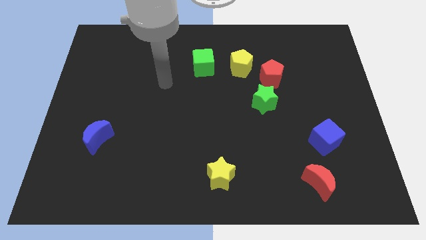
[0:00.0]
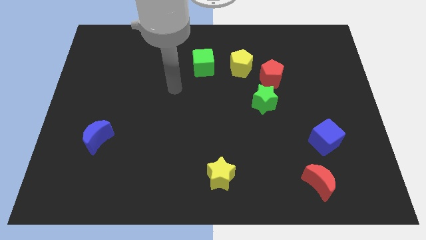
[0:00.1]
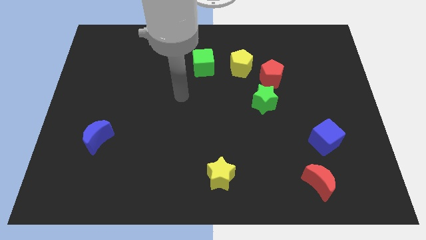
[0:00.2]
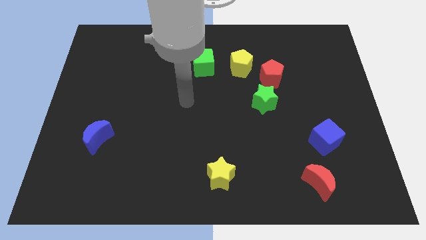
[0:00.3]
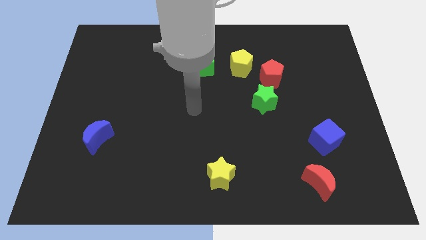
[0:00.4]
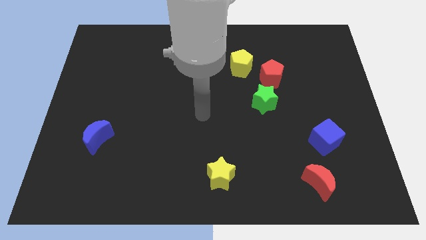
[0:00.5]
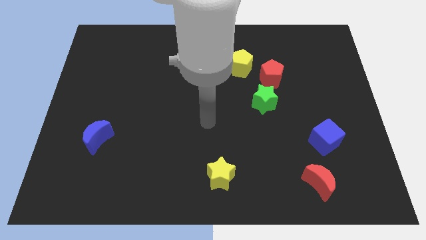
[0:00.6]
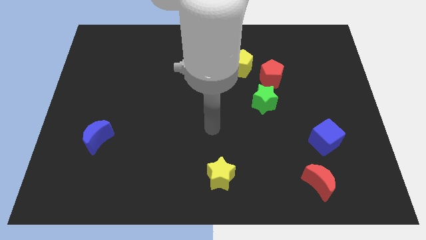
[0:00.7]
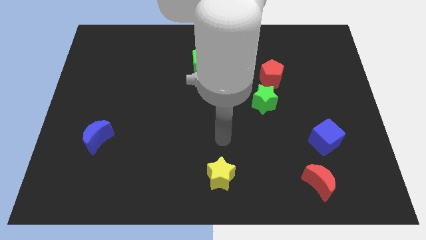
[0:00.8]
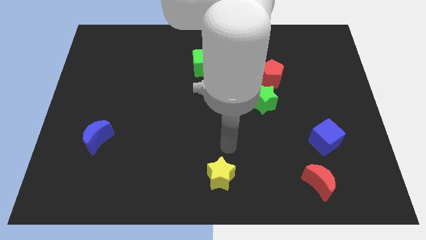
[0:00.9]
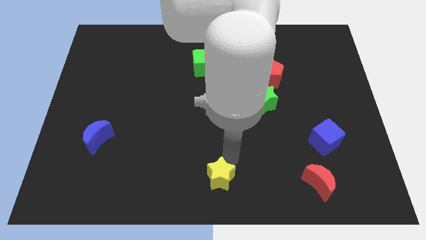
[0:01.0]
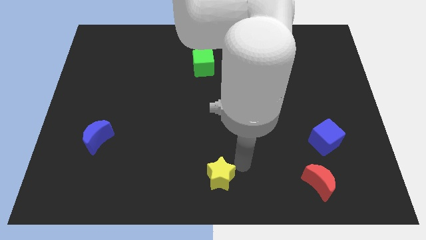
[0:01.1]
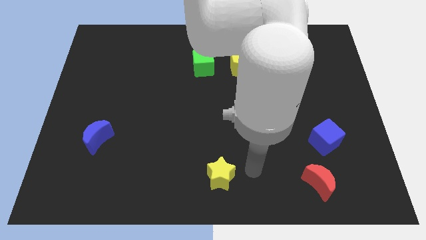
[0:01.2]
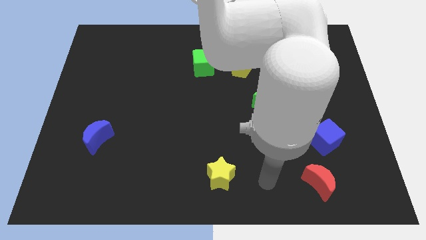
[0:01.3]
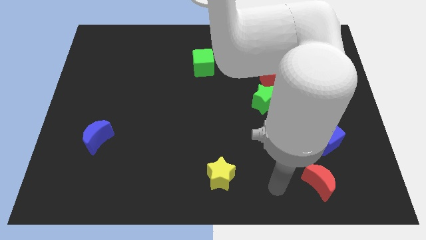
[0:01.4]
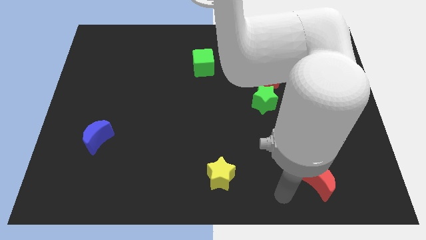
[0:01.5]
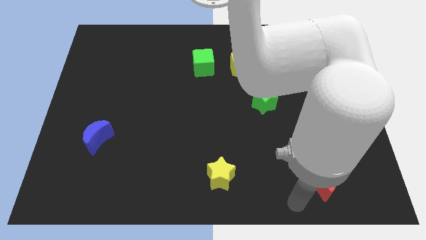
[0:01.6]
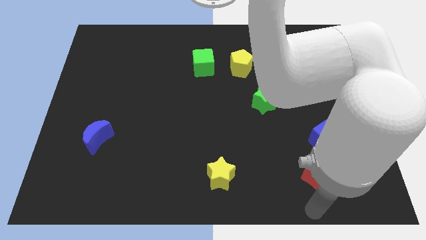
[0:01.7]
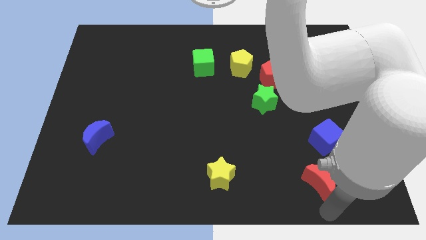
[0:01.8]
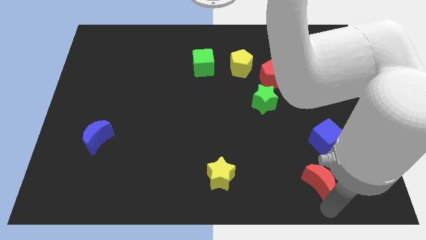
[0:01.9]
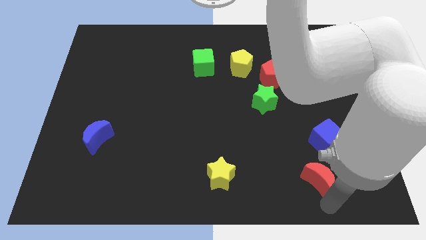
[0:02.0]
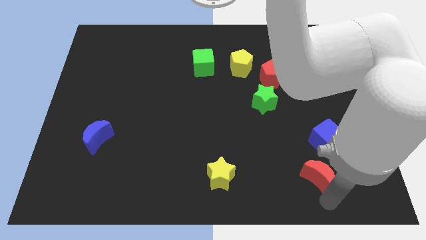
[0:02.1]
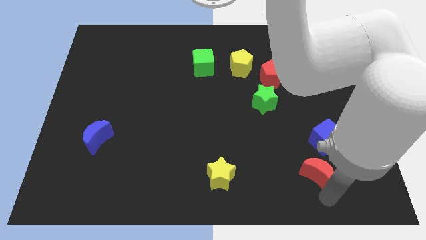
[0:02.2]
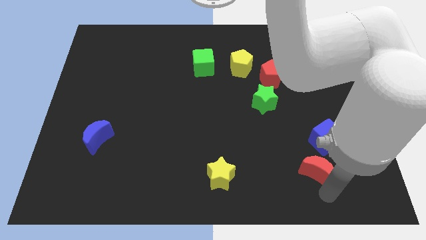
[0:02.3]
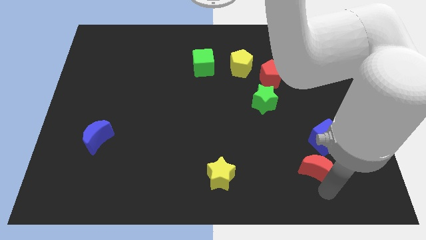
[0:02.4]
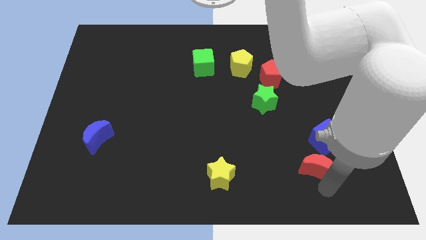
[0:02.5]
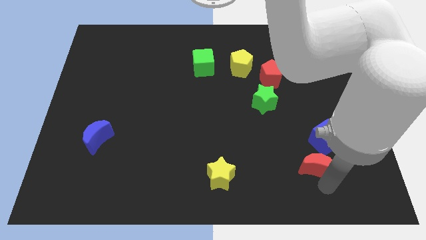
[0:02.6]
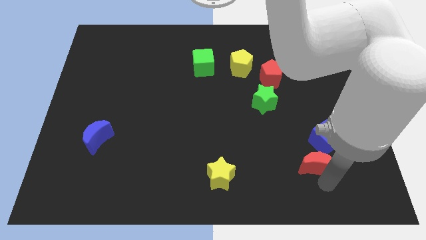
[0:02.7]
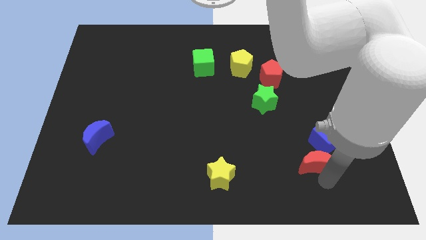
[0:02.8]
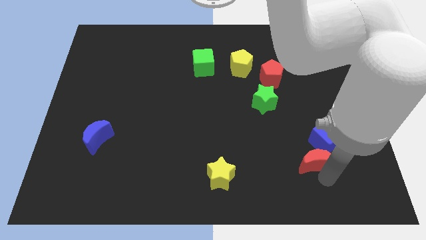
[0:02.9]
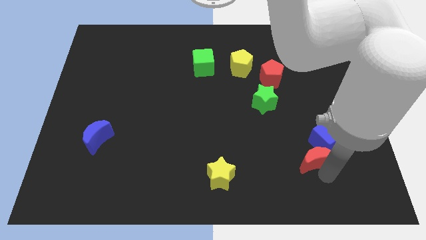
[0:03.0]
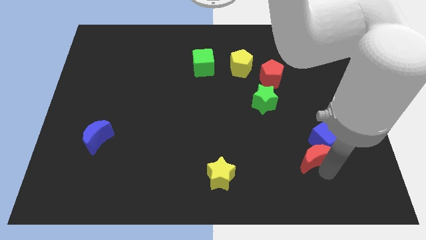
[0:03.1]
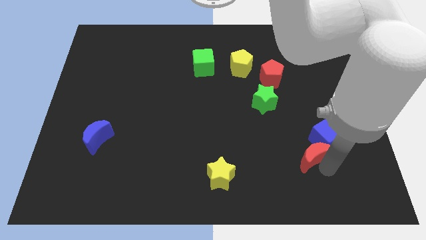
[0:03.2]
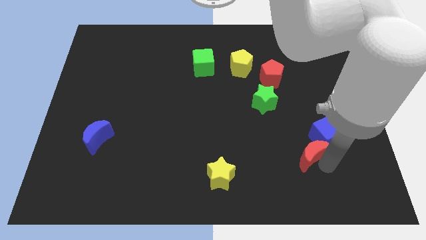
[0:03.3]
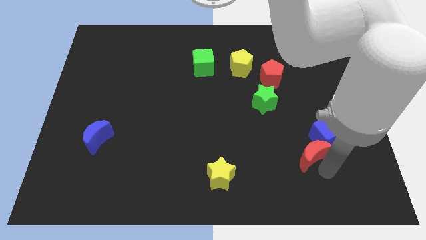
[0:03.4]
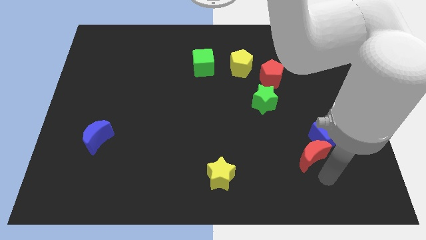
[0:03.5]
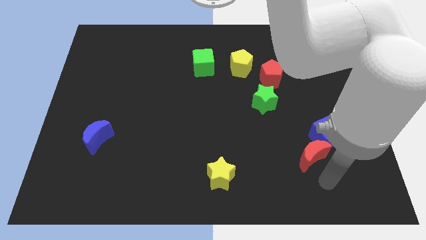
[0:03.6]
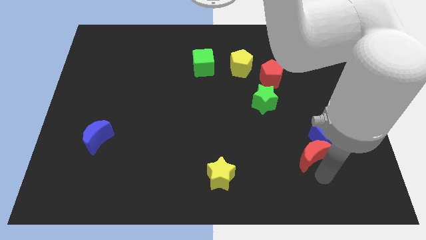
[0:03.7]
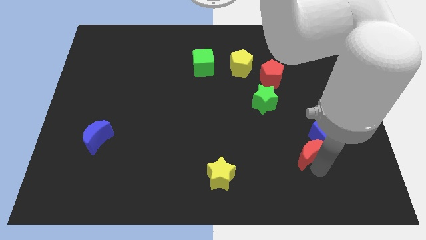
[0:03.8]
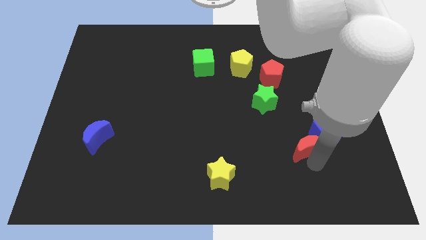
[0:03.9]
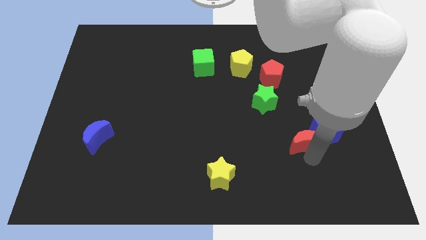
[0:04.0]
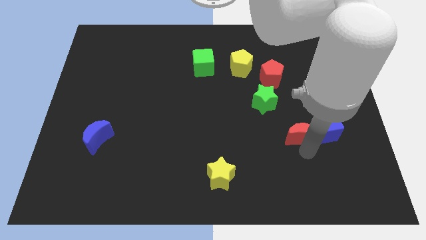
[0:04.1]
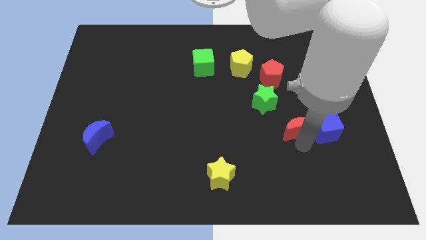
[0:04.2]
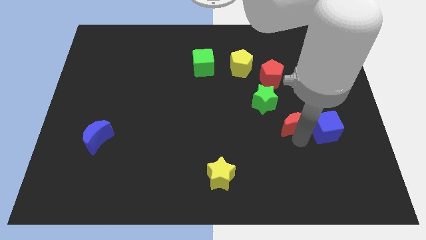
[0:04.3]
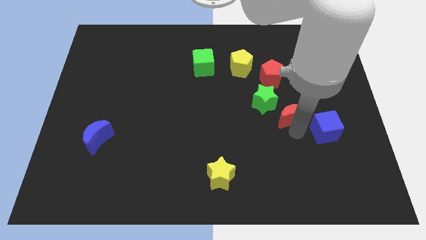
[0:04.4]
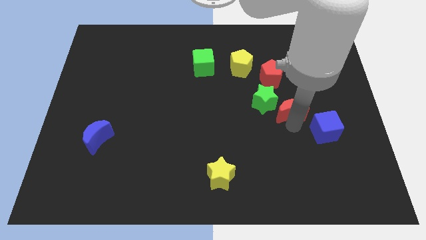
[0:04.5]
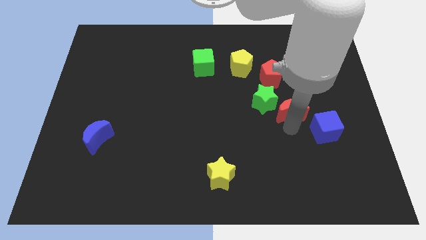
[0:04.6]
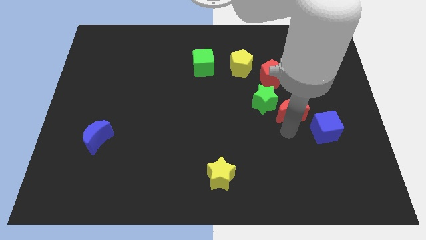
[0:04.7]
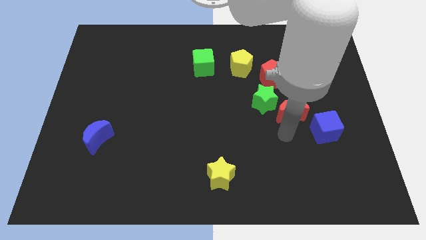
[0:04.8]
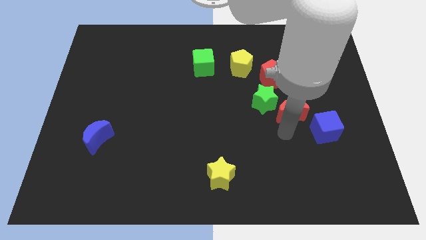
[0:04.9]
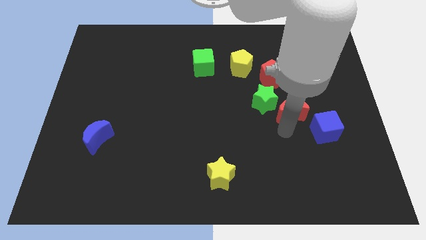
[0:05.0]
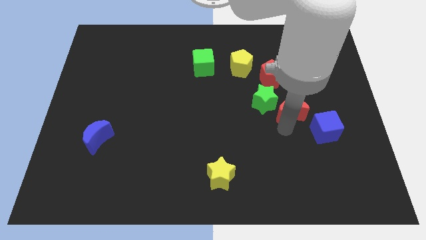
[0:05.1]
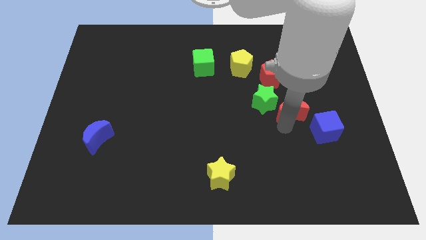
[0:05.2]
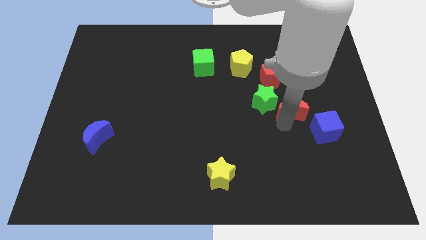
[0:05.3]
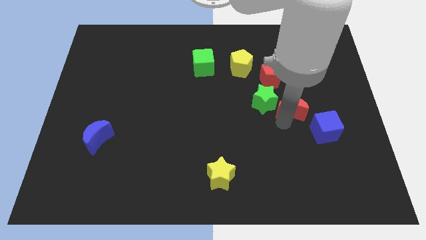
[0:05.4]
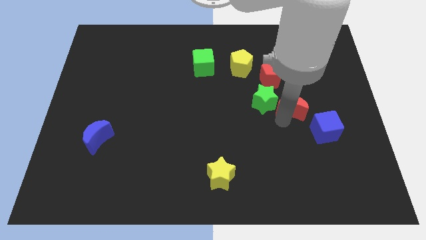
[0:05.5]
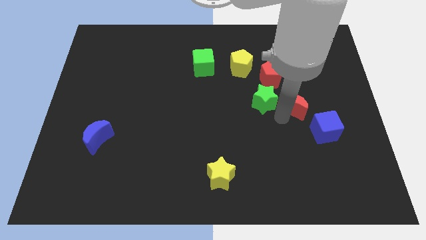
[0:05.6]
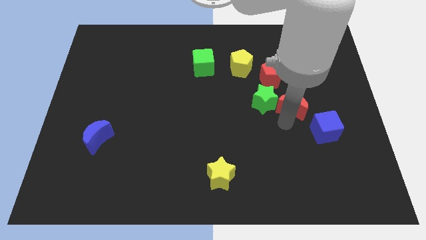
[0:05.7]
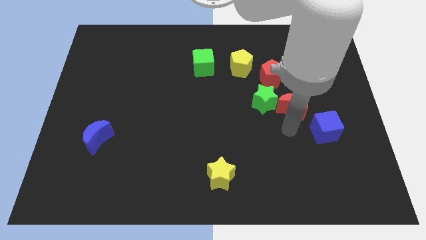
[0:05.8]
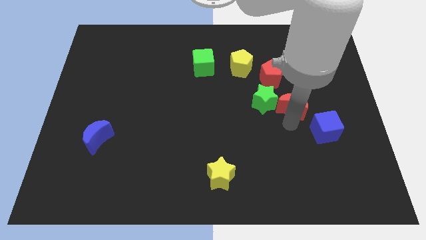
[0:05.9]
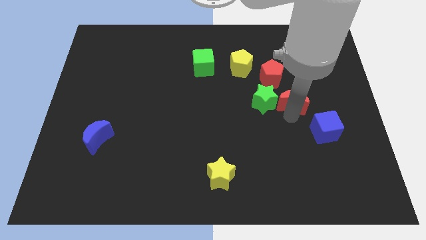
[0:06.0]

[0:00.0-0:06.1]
move the red moon upwards

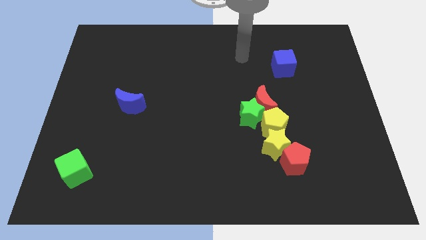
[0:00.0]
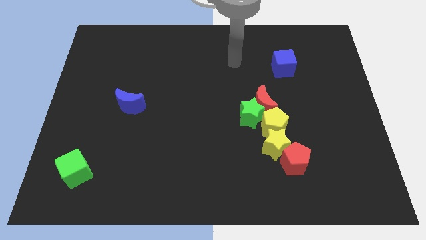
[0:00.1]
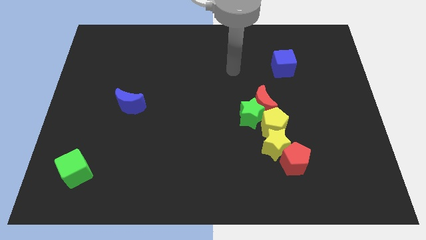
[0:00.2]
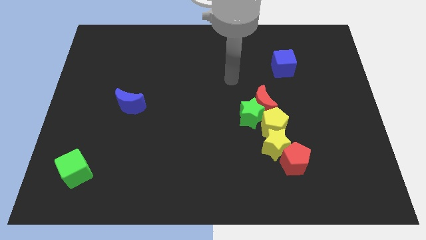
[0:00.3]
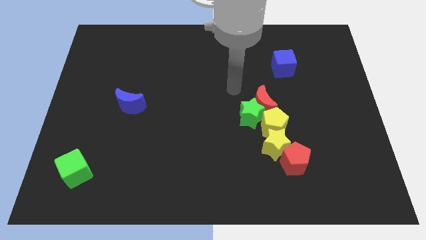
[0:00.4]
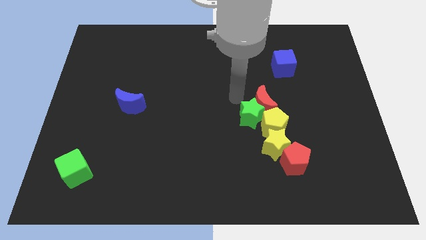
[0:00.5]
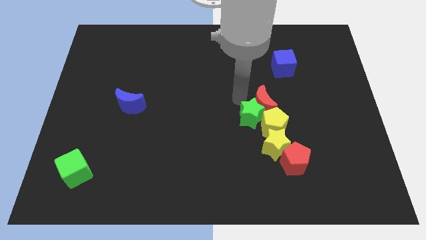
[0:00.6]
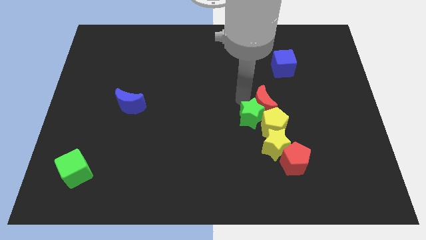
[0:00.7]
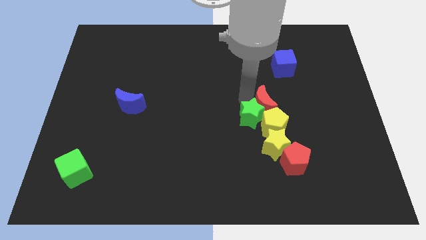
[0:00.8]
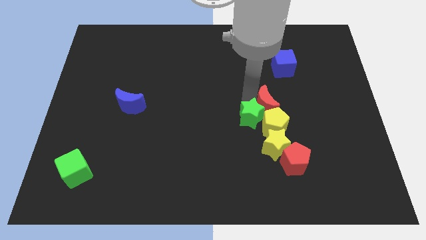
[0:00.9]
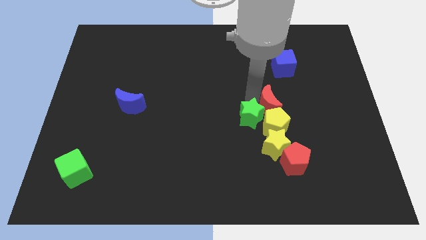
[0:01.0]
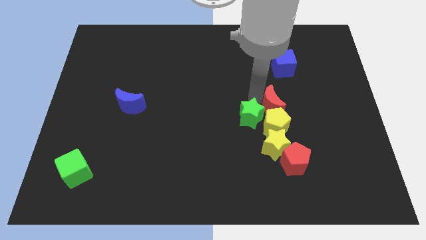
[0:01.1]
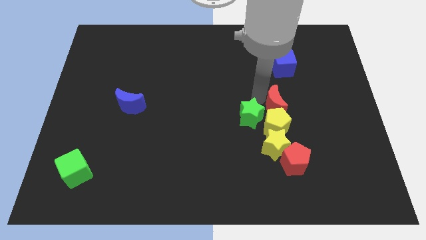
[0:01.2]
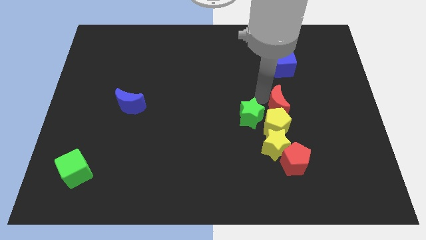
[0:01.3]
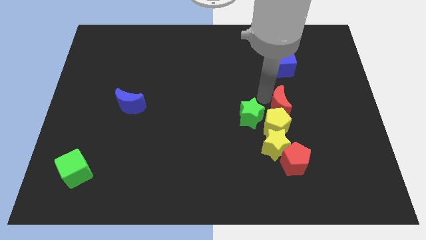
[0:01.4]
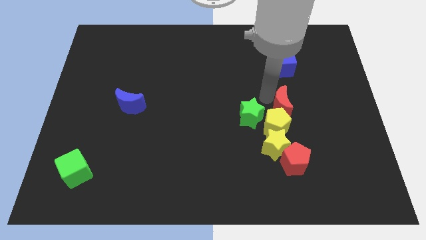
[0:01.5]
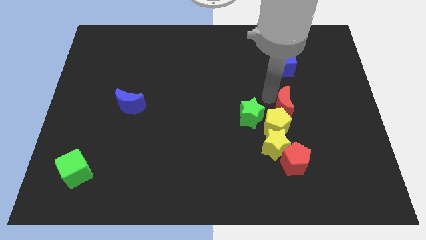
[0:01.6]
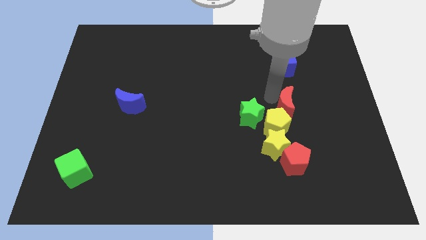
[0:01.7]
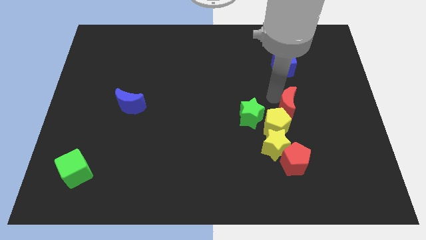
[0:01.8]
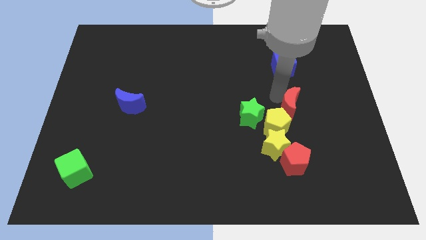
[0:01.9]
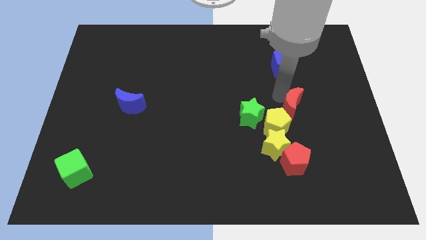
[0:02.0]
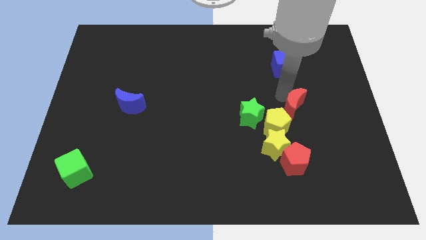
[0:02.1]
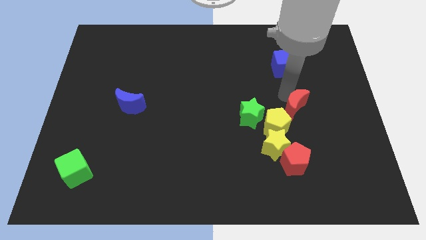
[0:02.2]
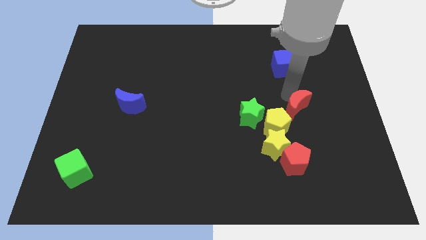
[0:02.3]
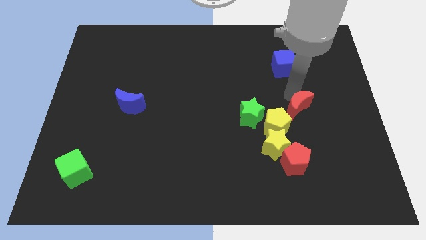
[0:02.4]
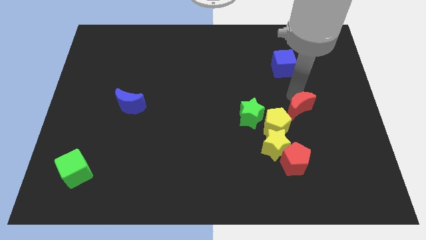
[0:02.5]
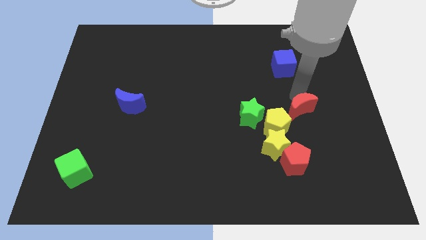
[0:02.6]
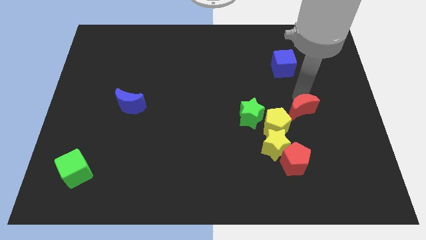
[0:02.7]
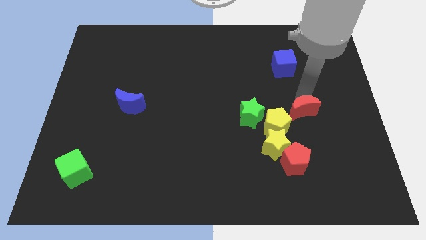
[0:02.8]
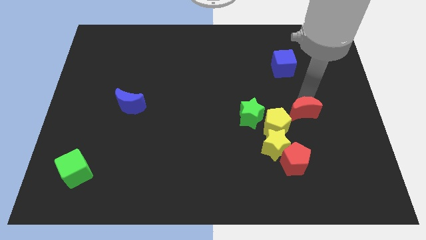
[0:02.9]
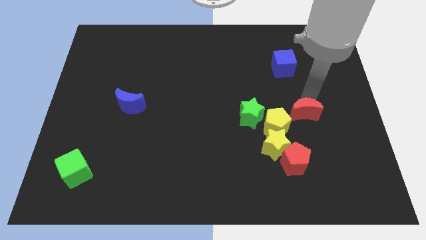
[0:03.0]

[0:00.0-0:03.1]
move the red moon downwards and to the right a little bit
